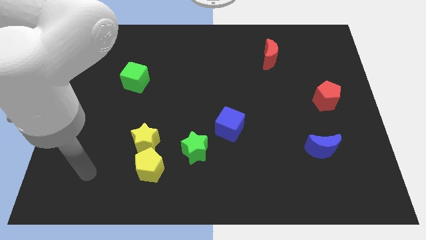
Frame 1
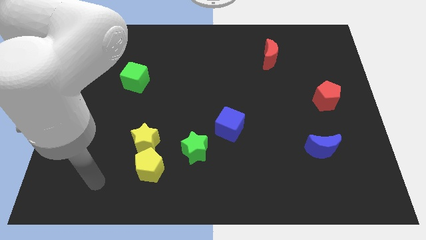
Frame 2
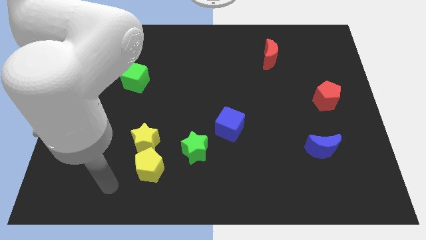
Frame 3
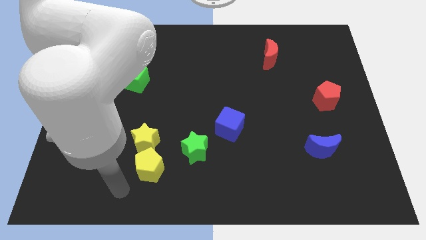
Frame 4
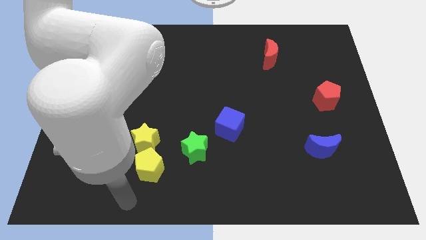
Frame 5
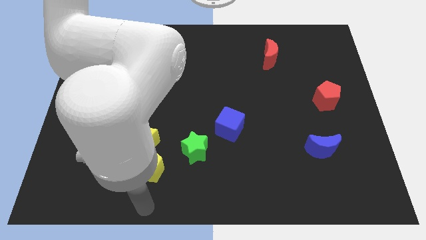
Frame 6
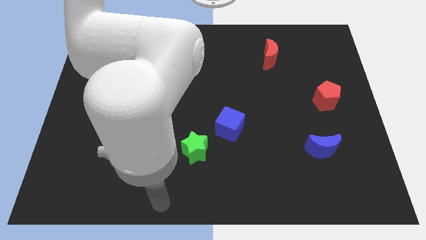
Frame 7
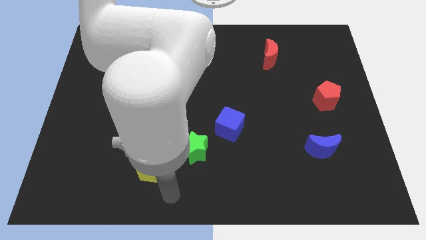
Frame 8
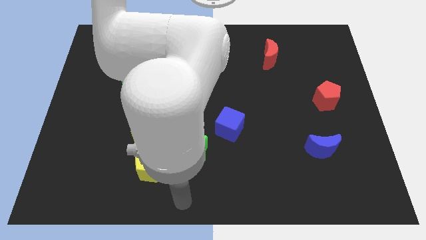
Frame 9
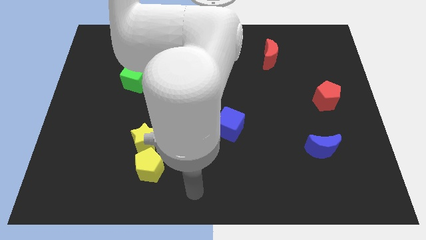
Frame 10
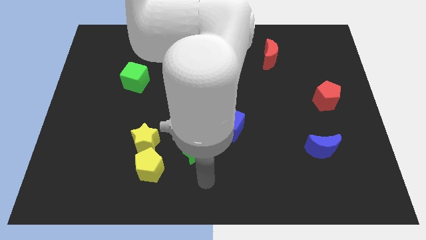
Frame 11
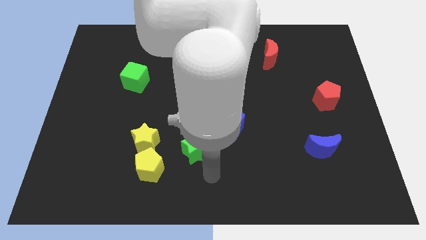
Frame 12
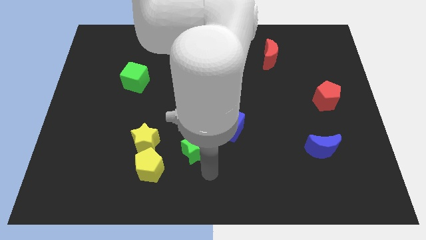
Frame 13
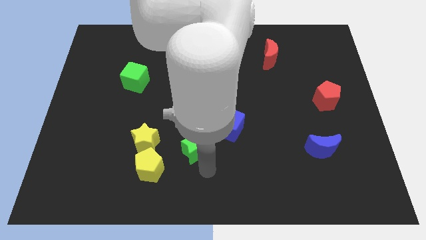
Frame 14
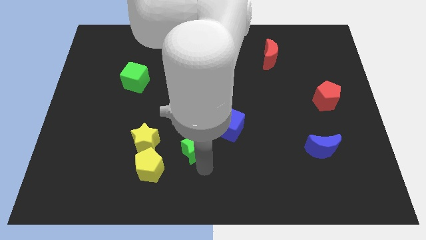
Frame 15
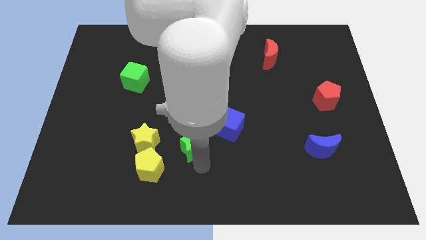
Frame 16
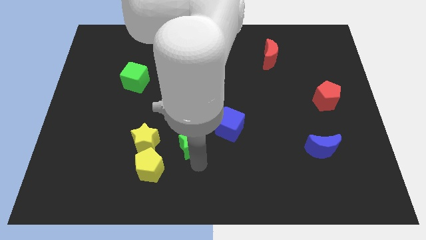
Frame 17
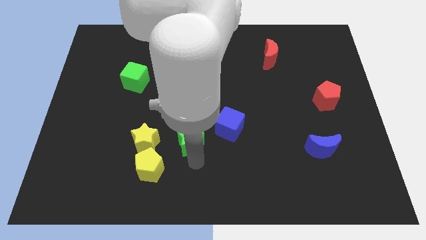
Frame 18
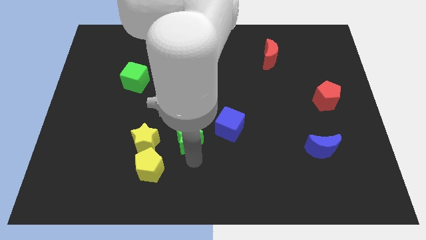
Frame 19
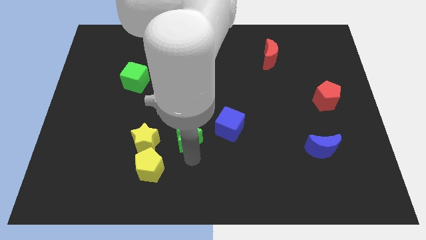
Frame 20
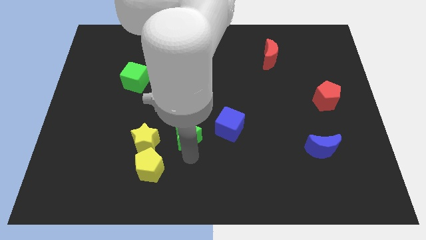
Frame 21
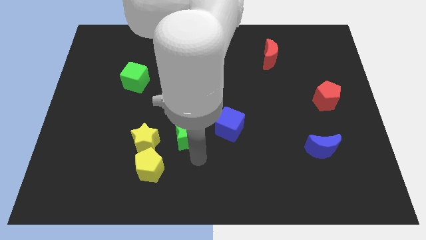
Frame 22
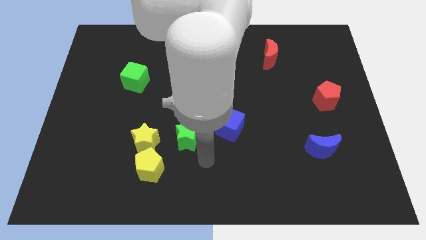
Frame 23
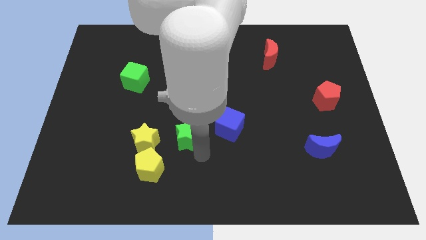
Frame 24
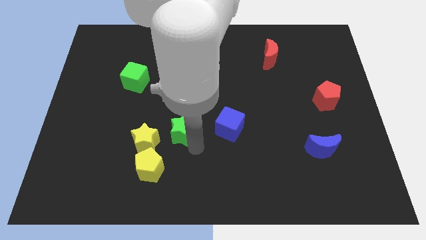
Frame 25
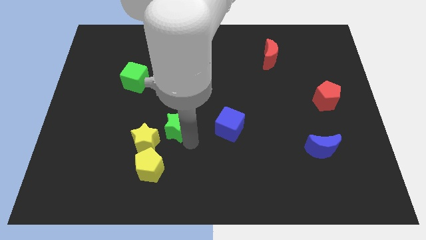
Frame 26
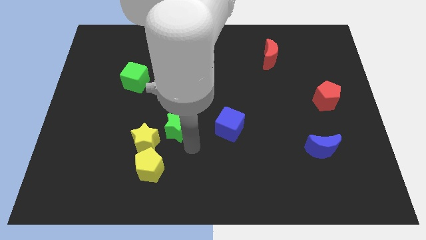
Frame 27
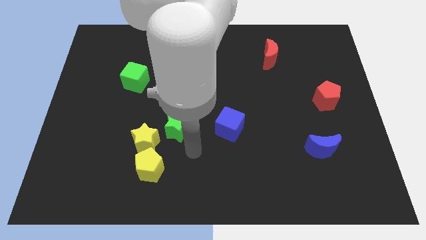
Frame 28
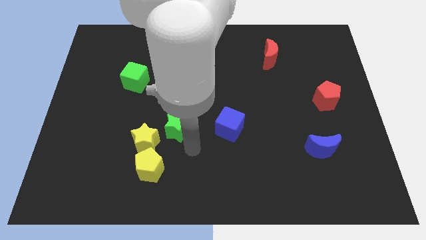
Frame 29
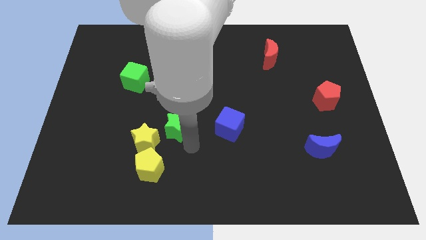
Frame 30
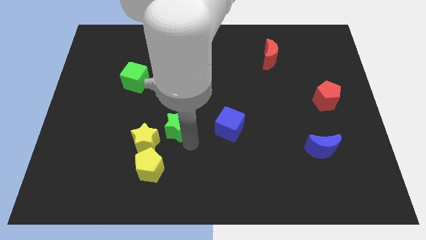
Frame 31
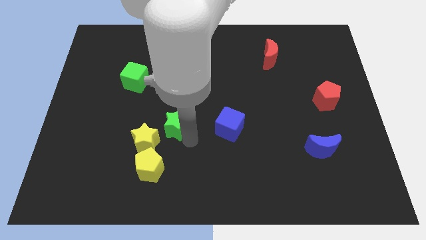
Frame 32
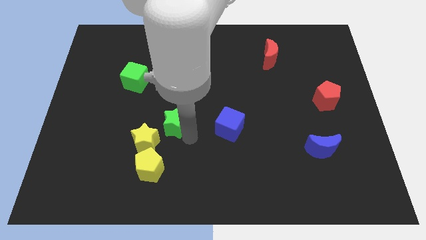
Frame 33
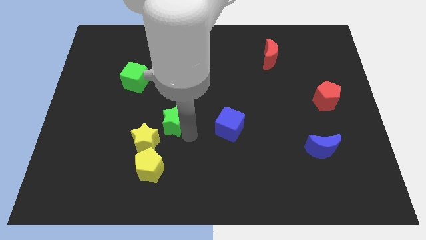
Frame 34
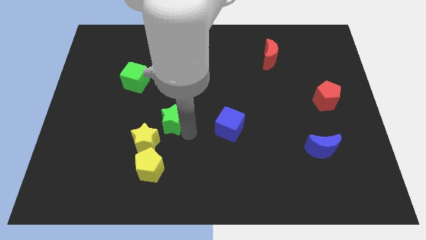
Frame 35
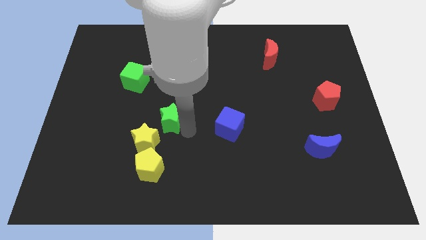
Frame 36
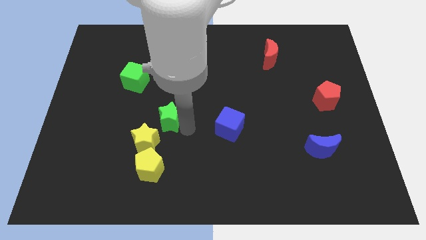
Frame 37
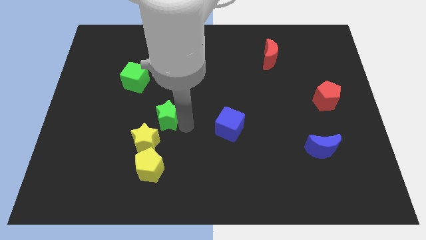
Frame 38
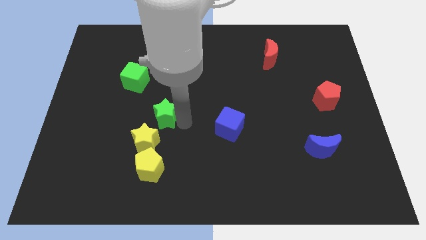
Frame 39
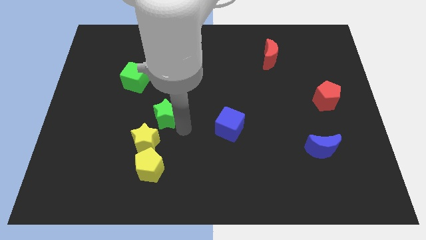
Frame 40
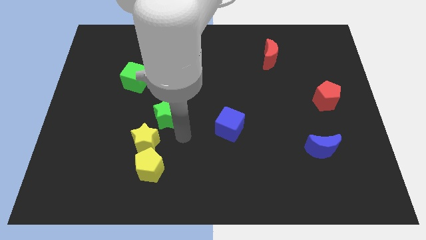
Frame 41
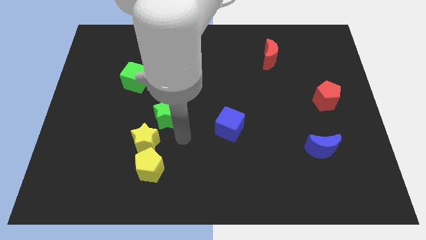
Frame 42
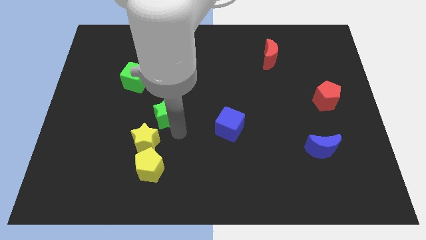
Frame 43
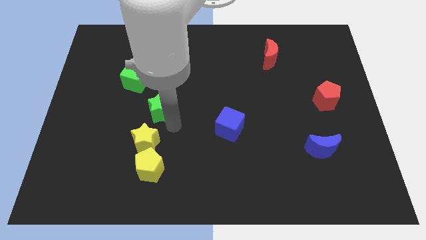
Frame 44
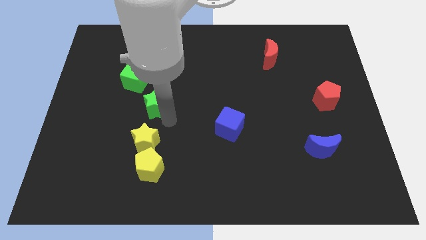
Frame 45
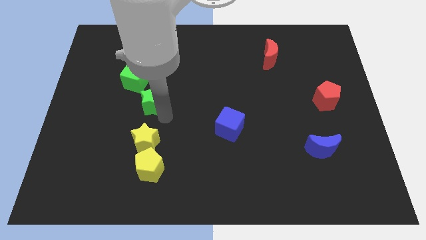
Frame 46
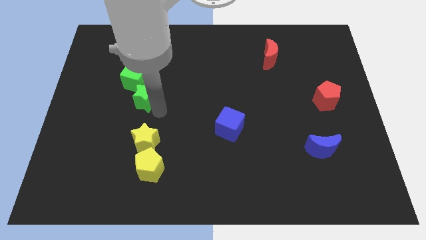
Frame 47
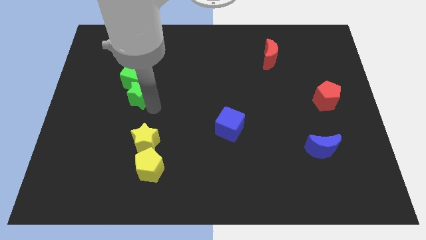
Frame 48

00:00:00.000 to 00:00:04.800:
move the green star next to the green cube

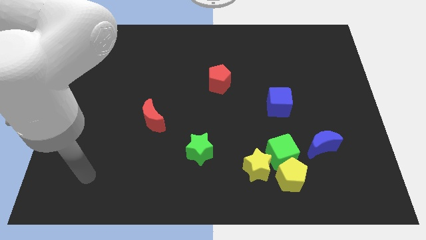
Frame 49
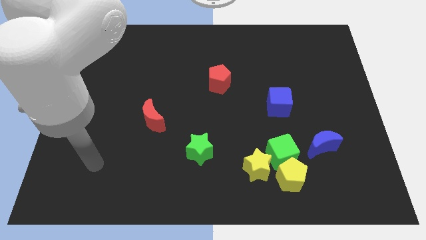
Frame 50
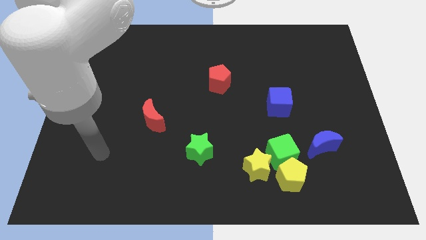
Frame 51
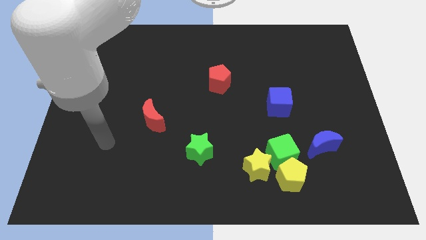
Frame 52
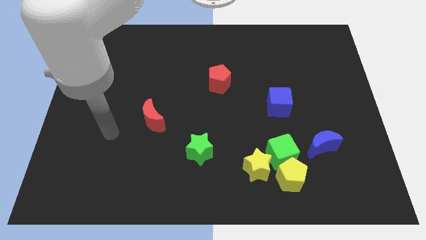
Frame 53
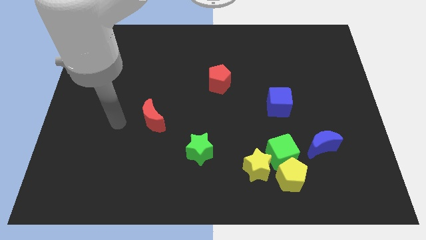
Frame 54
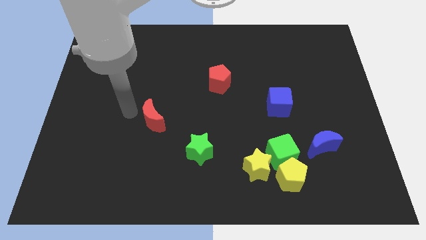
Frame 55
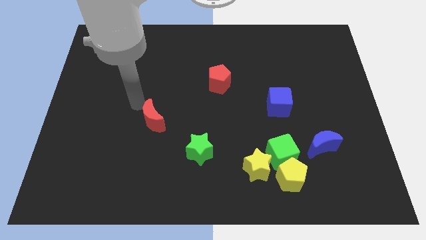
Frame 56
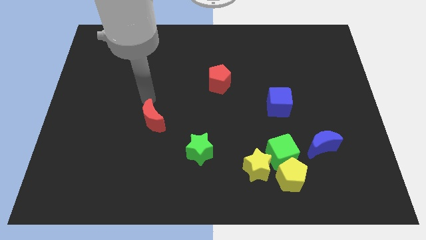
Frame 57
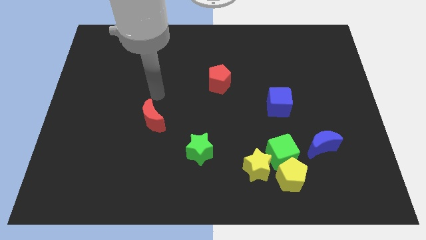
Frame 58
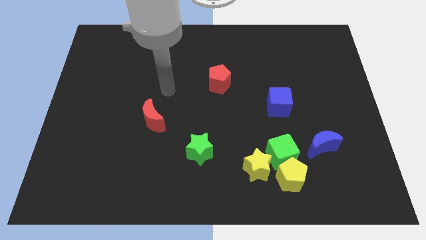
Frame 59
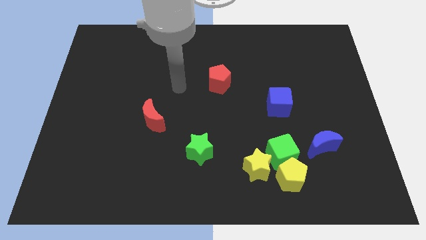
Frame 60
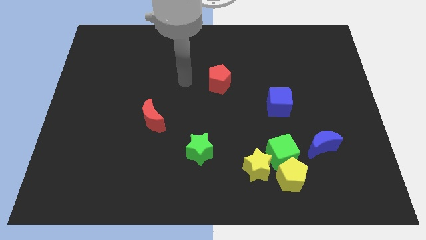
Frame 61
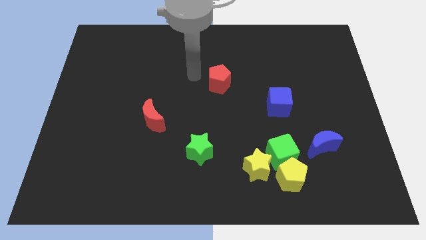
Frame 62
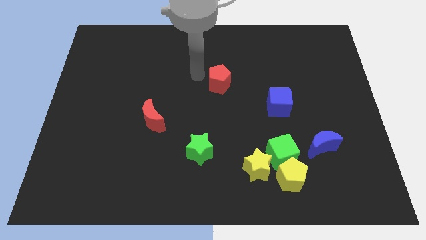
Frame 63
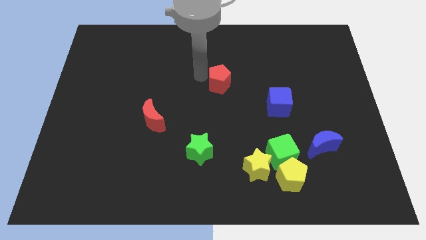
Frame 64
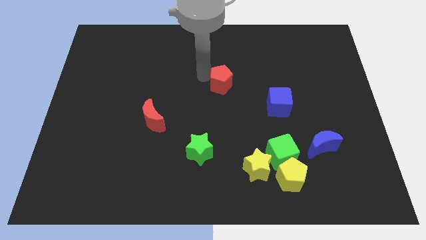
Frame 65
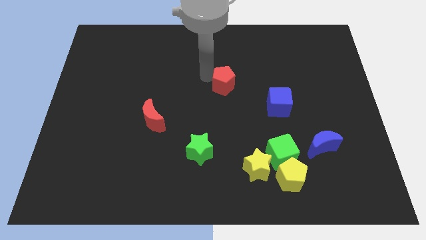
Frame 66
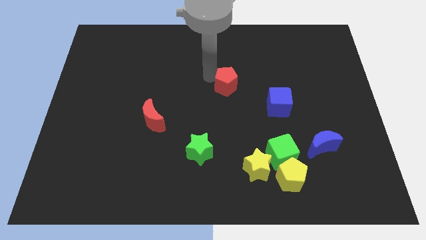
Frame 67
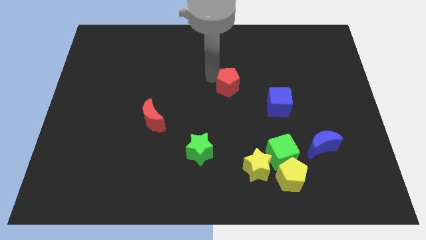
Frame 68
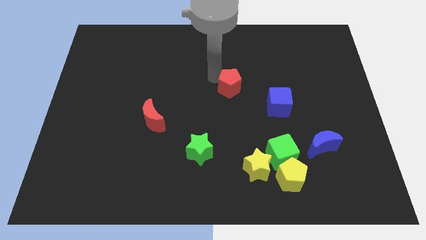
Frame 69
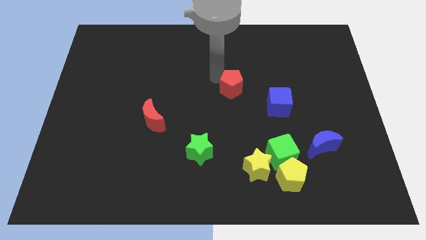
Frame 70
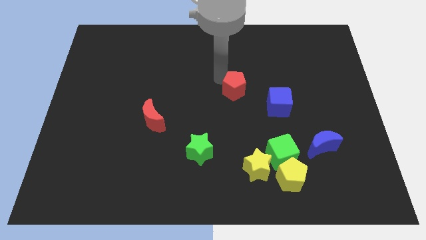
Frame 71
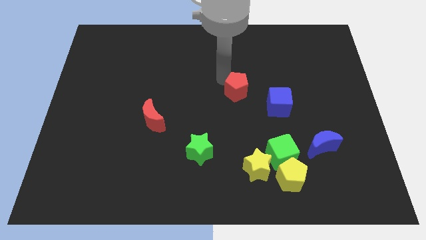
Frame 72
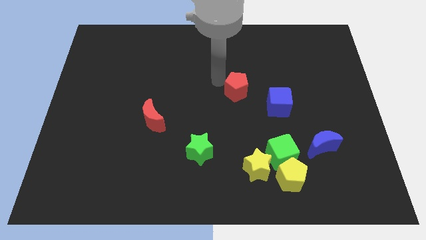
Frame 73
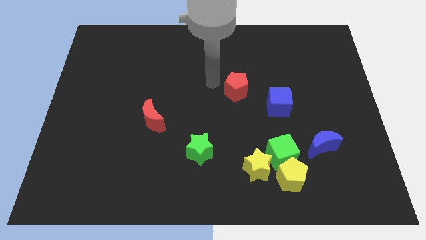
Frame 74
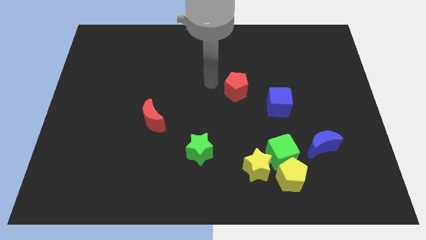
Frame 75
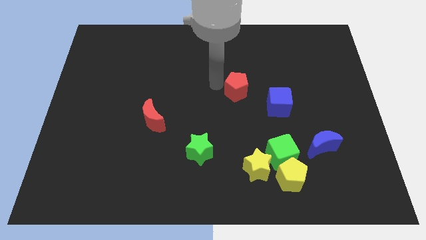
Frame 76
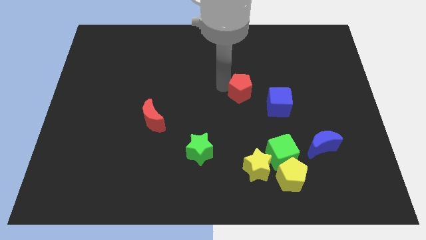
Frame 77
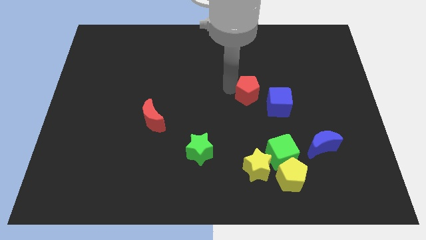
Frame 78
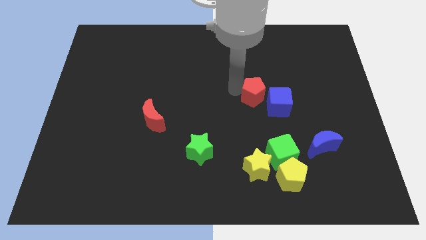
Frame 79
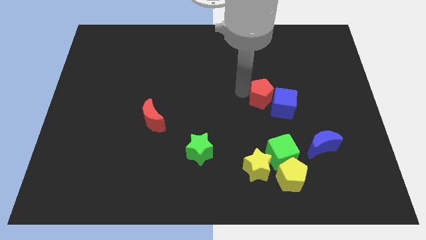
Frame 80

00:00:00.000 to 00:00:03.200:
push the red pentagon next to the blue cube
